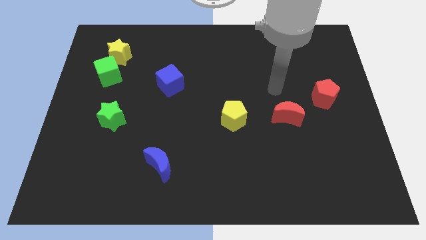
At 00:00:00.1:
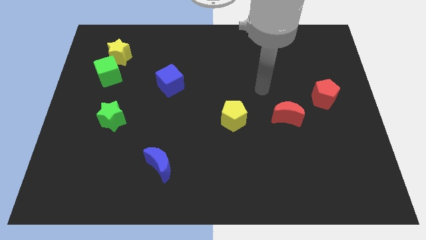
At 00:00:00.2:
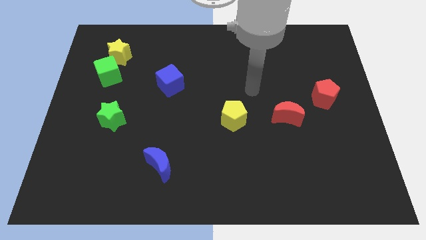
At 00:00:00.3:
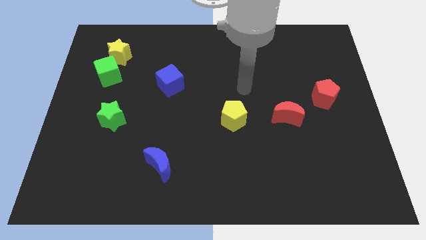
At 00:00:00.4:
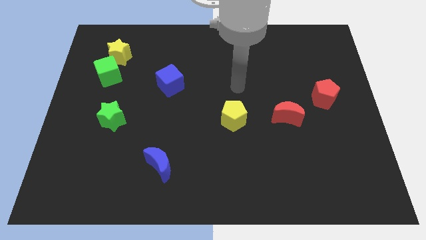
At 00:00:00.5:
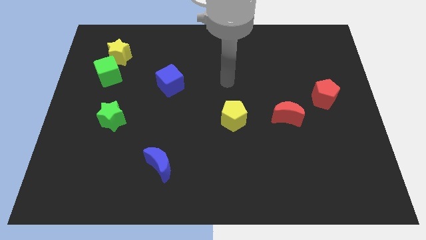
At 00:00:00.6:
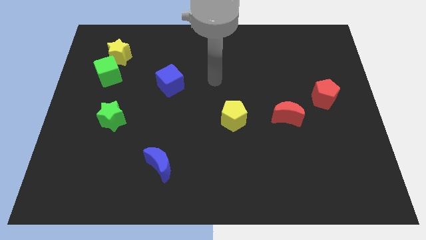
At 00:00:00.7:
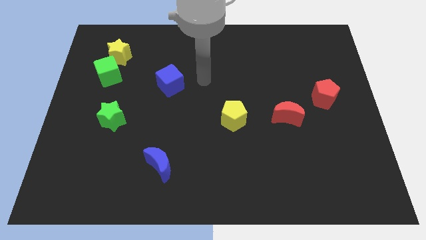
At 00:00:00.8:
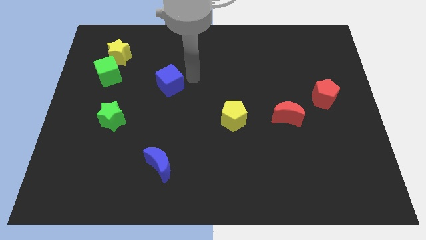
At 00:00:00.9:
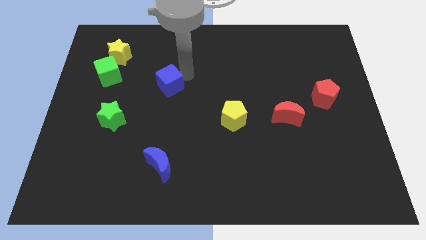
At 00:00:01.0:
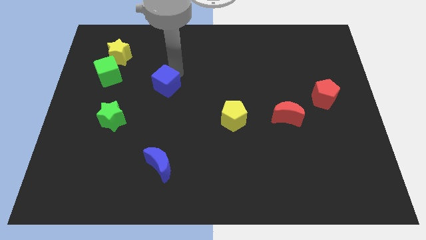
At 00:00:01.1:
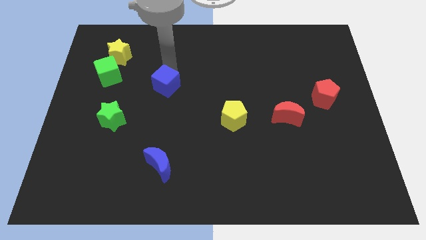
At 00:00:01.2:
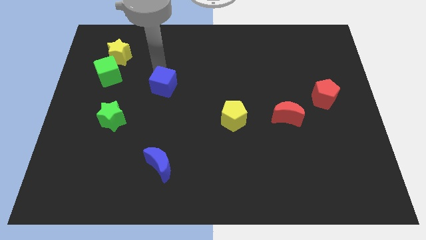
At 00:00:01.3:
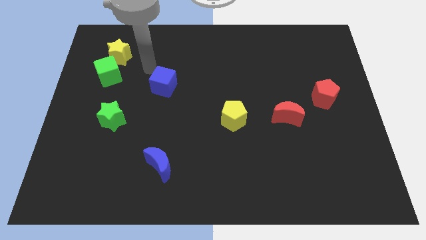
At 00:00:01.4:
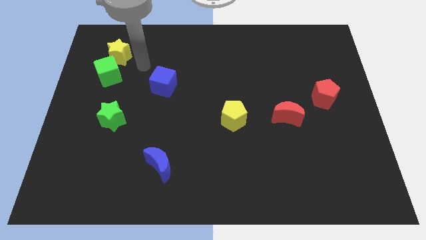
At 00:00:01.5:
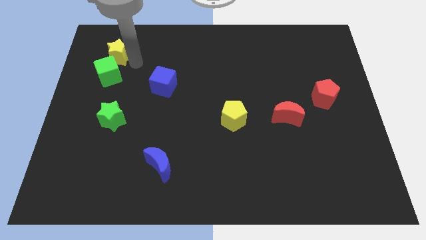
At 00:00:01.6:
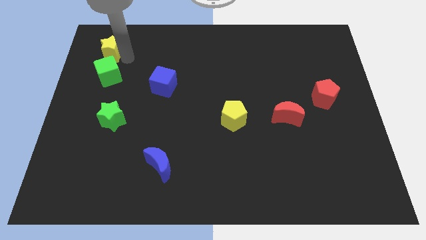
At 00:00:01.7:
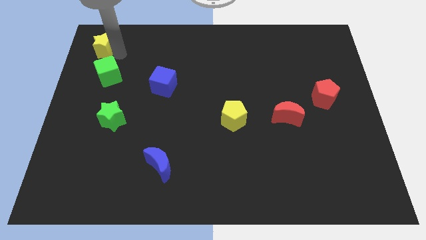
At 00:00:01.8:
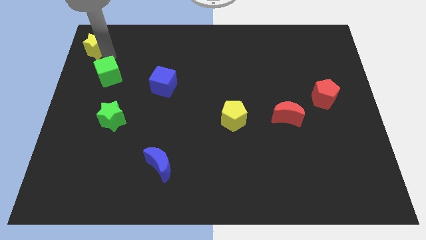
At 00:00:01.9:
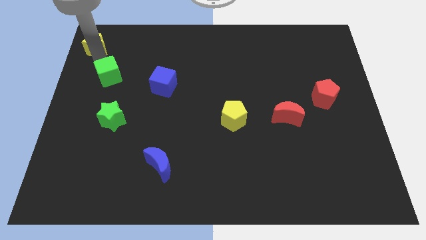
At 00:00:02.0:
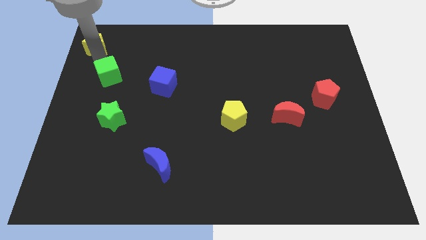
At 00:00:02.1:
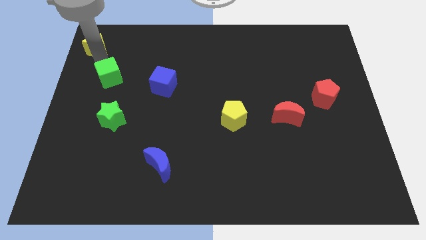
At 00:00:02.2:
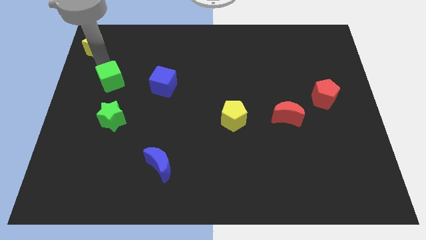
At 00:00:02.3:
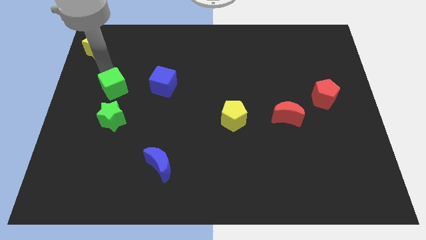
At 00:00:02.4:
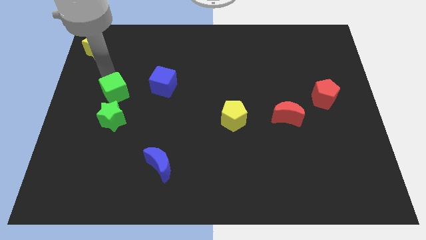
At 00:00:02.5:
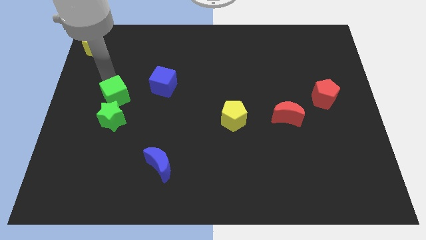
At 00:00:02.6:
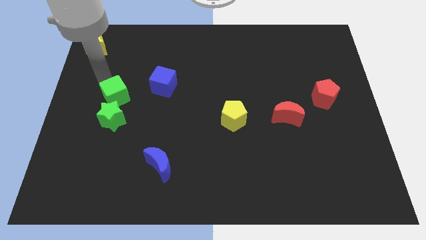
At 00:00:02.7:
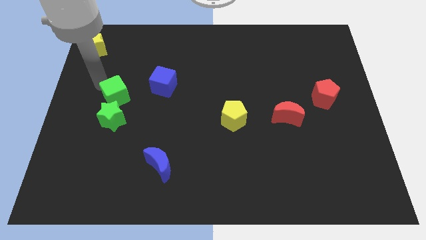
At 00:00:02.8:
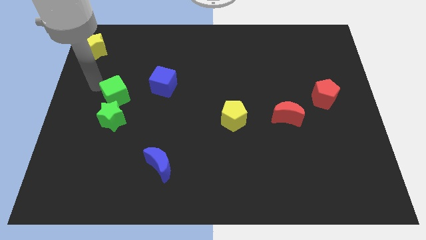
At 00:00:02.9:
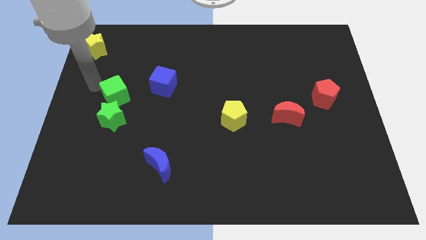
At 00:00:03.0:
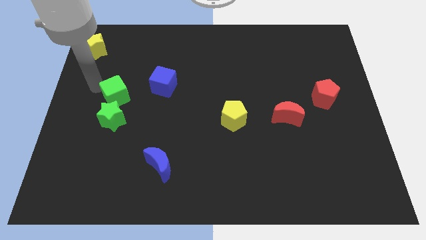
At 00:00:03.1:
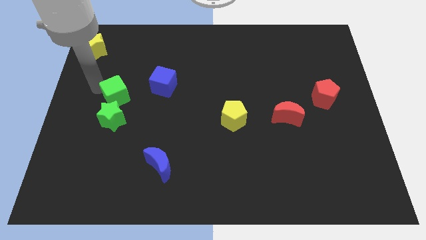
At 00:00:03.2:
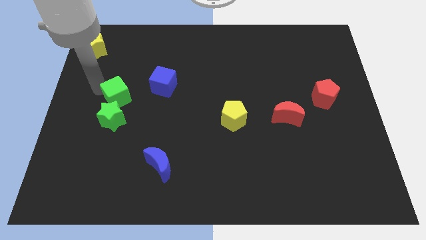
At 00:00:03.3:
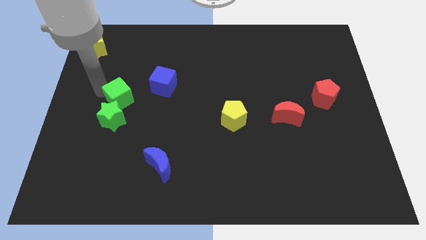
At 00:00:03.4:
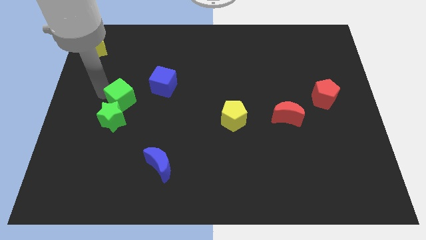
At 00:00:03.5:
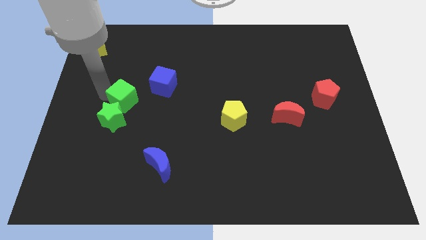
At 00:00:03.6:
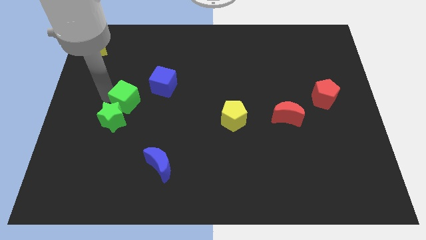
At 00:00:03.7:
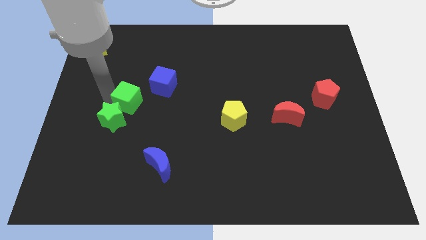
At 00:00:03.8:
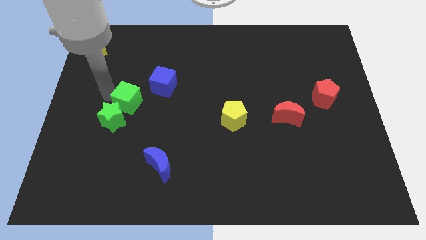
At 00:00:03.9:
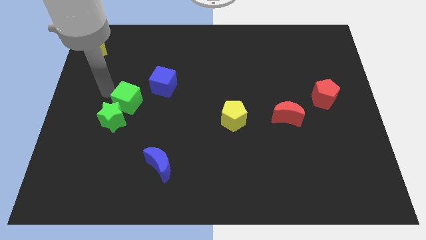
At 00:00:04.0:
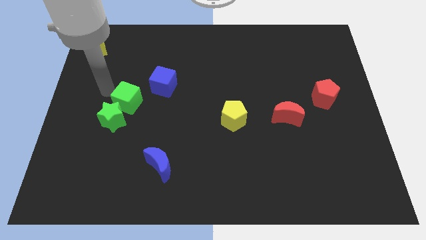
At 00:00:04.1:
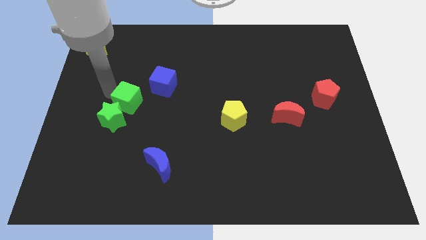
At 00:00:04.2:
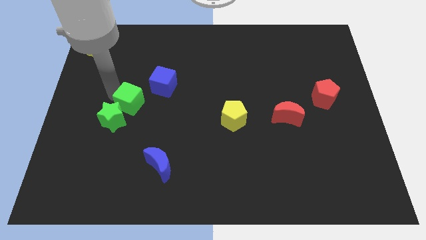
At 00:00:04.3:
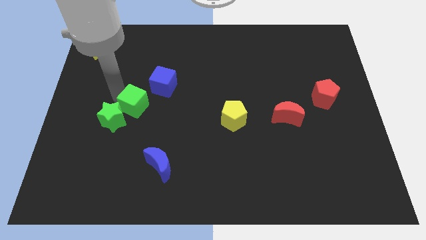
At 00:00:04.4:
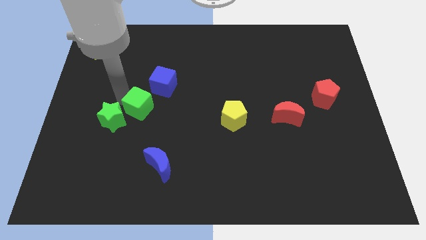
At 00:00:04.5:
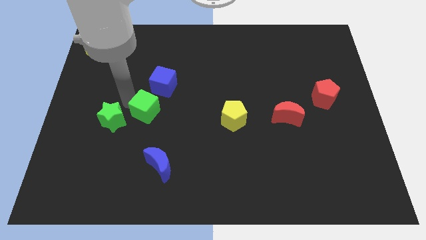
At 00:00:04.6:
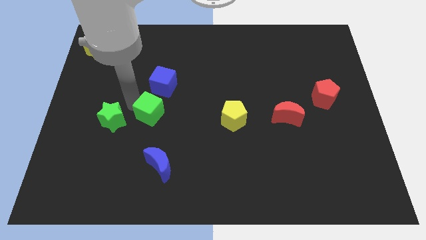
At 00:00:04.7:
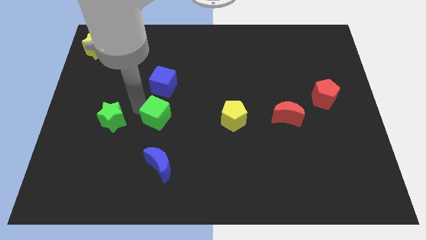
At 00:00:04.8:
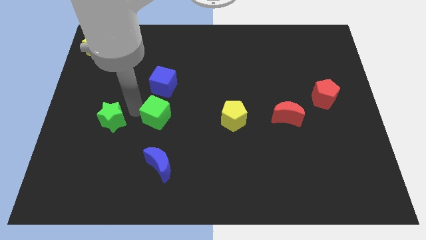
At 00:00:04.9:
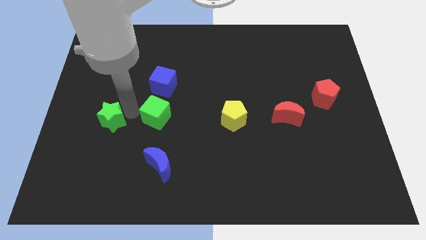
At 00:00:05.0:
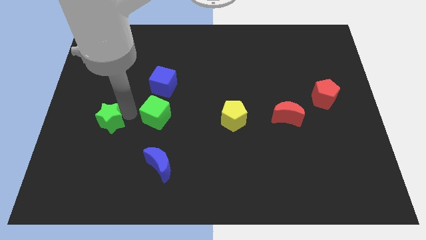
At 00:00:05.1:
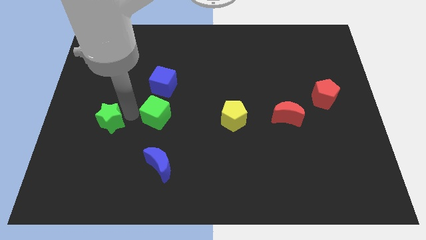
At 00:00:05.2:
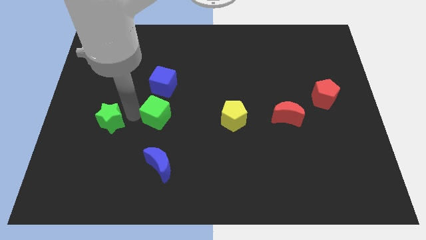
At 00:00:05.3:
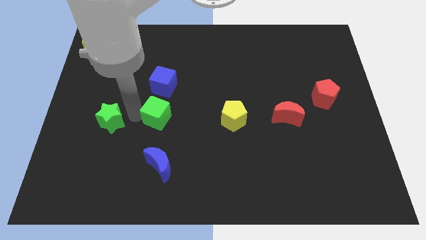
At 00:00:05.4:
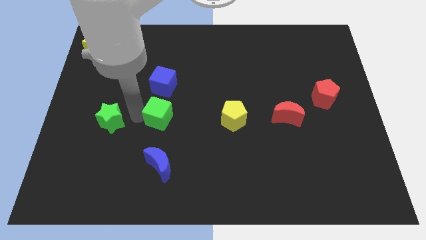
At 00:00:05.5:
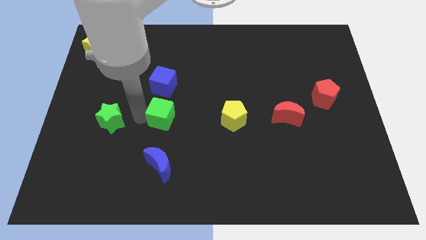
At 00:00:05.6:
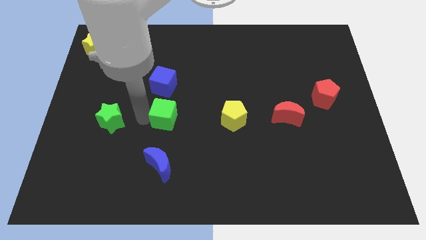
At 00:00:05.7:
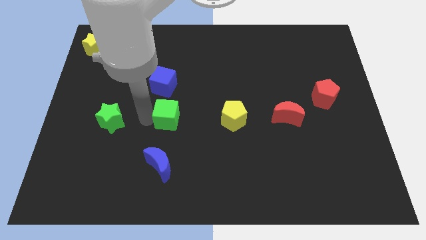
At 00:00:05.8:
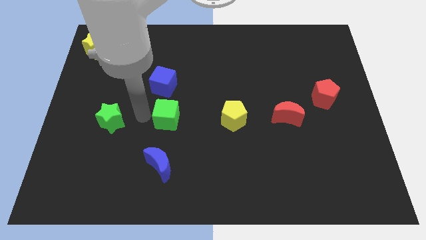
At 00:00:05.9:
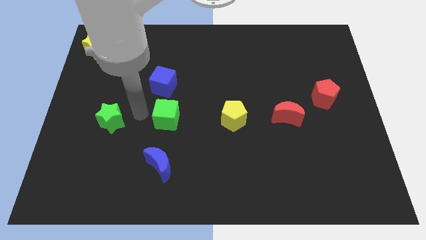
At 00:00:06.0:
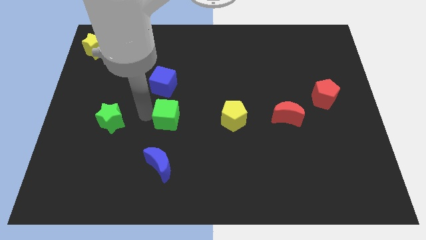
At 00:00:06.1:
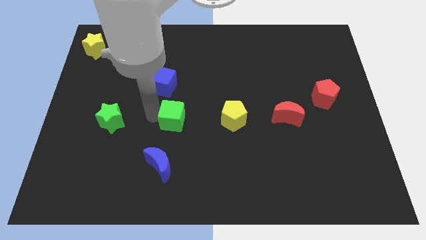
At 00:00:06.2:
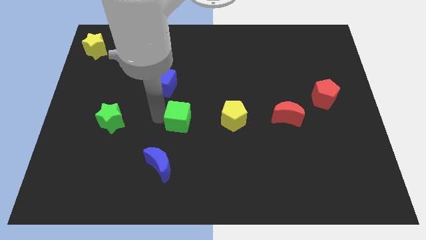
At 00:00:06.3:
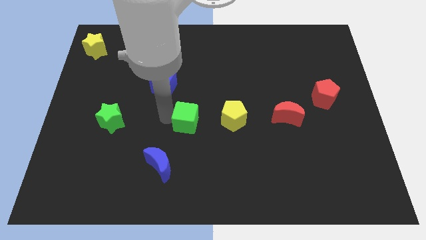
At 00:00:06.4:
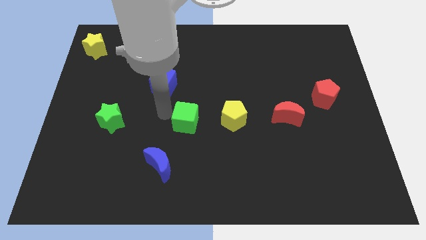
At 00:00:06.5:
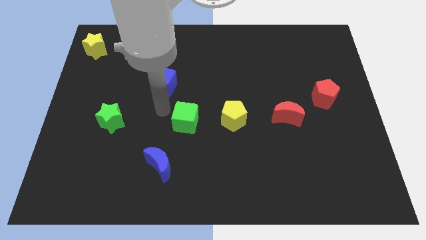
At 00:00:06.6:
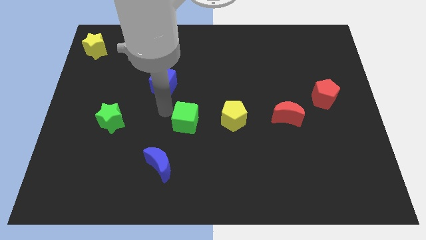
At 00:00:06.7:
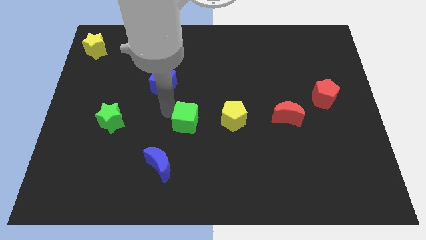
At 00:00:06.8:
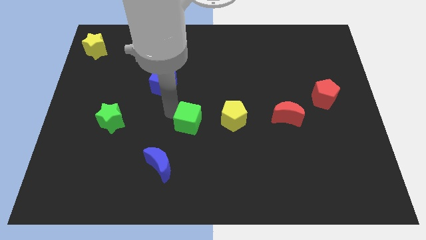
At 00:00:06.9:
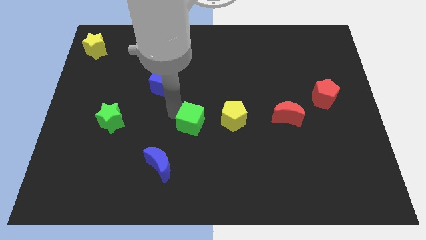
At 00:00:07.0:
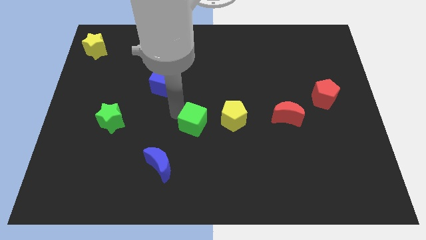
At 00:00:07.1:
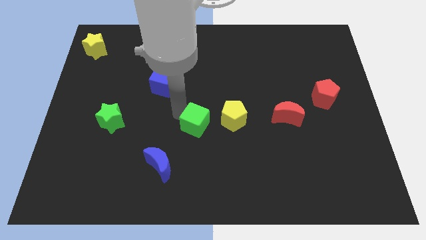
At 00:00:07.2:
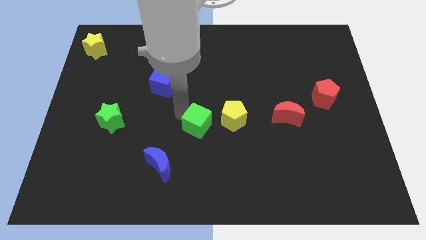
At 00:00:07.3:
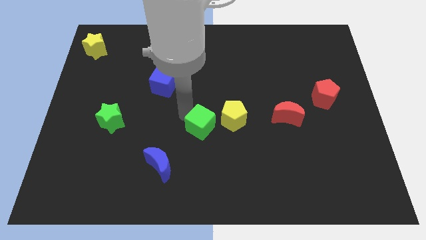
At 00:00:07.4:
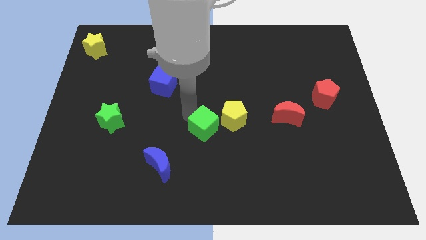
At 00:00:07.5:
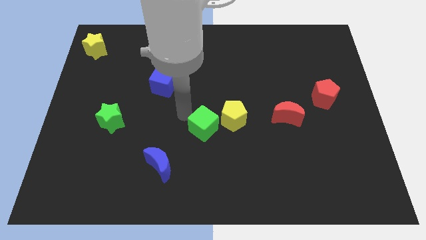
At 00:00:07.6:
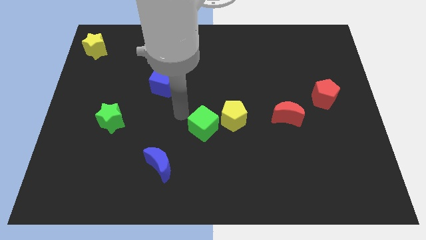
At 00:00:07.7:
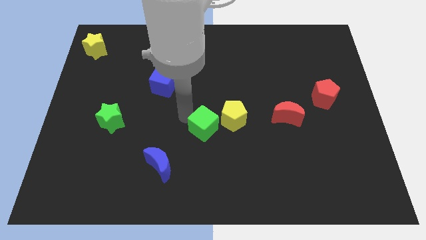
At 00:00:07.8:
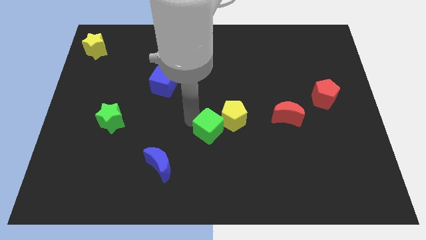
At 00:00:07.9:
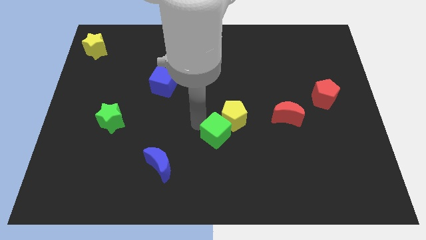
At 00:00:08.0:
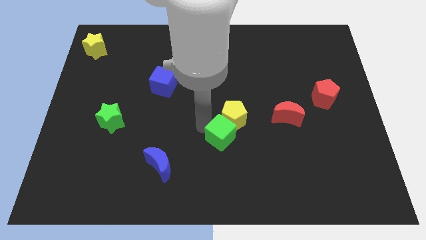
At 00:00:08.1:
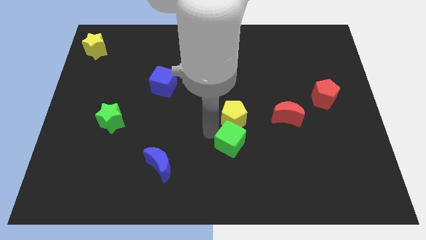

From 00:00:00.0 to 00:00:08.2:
slide the green cube to the bottom right side of the yellow pentagon
